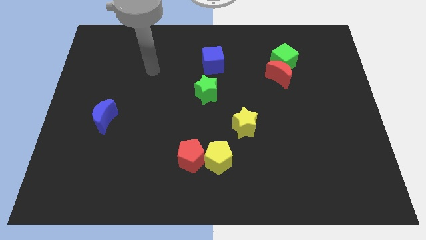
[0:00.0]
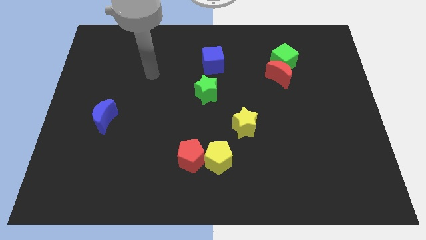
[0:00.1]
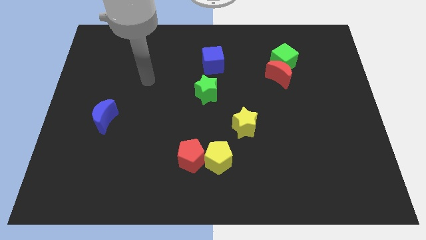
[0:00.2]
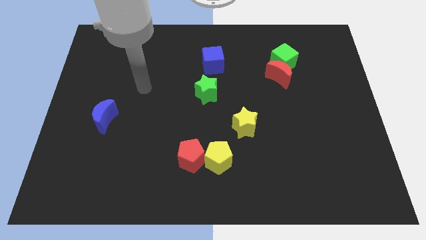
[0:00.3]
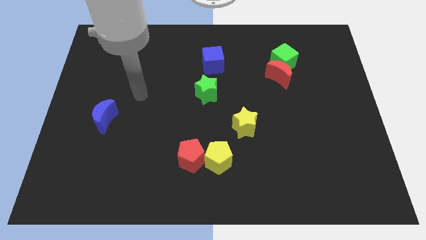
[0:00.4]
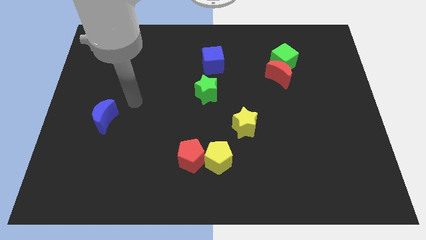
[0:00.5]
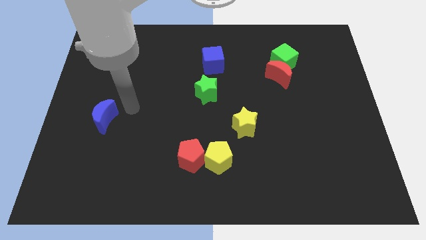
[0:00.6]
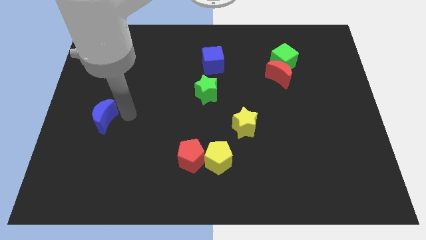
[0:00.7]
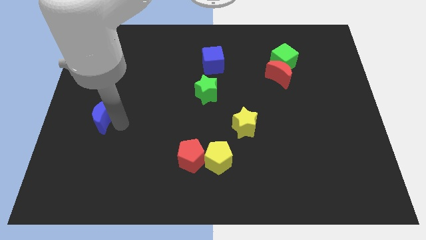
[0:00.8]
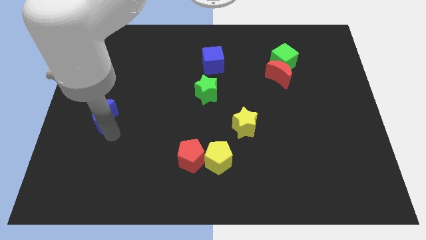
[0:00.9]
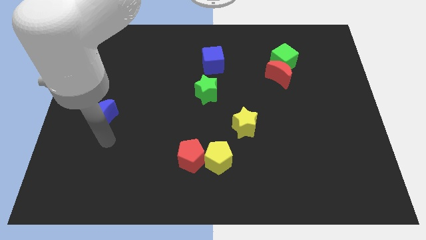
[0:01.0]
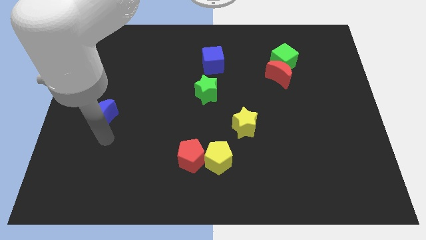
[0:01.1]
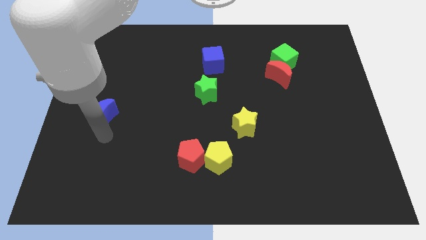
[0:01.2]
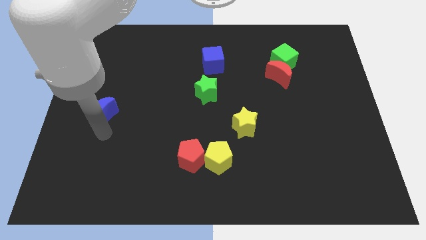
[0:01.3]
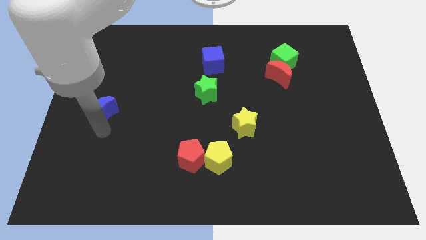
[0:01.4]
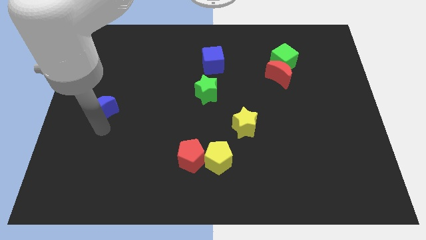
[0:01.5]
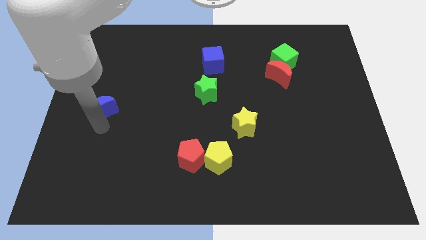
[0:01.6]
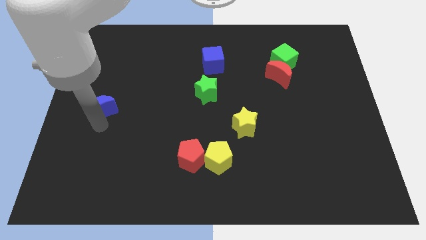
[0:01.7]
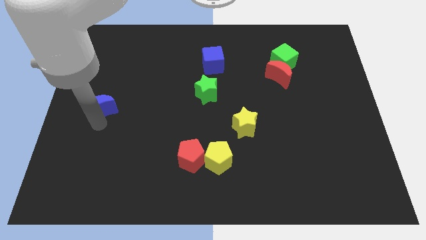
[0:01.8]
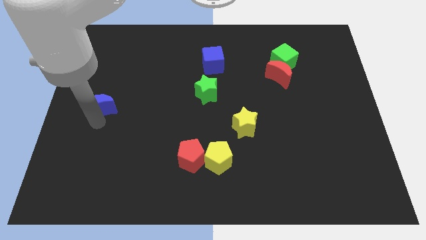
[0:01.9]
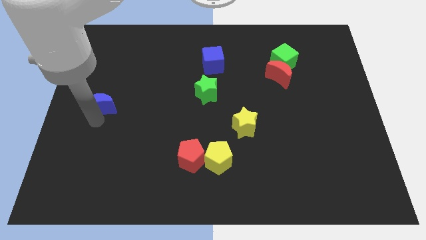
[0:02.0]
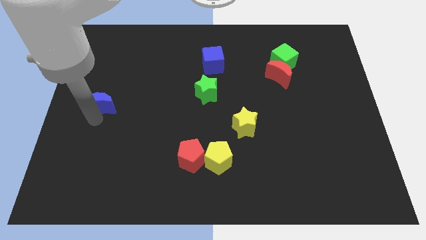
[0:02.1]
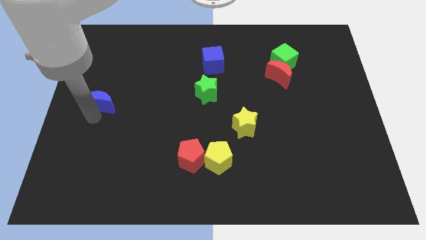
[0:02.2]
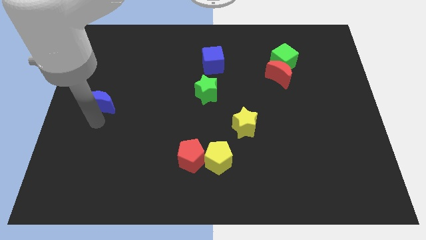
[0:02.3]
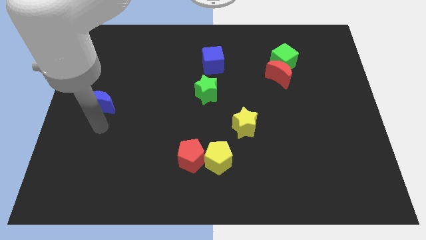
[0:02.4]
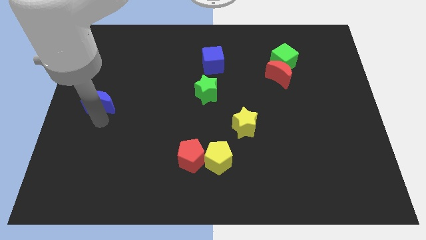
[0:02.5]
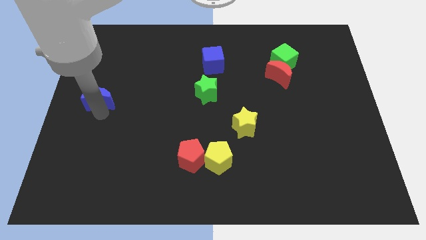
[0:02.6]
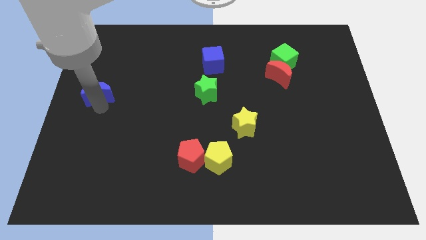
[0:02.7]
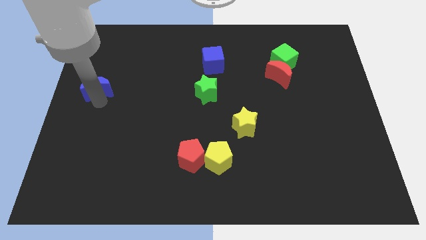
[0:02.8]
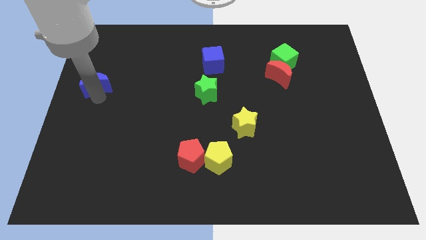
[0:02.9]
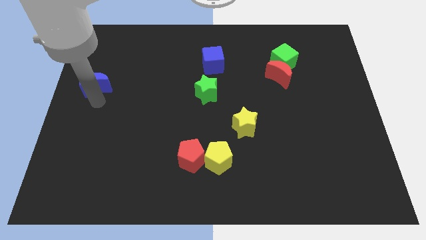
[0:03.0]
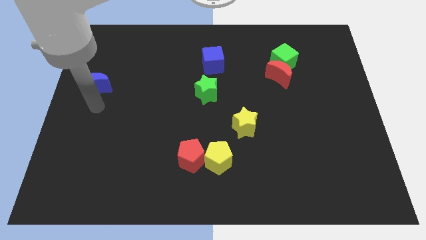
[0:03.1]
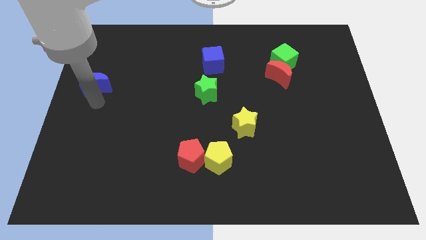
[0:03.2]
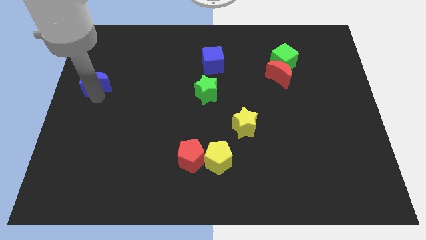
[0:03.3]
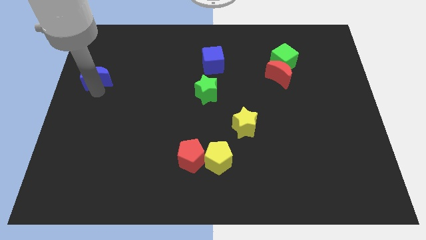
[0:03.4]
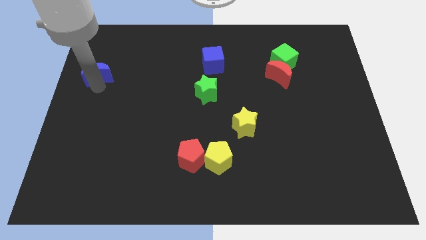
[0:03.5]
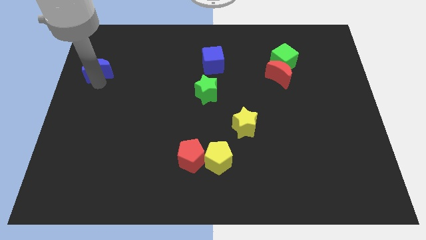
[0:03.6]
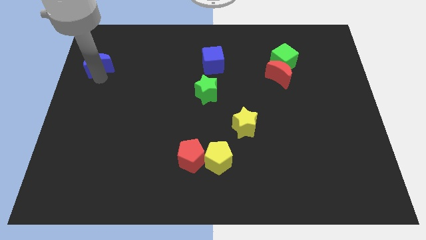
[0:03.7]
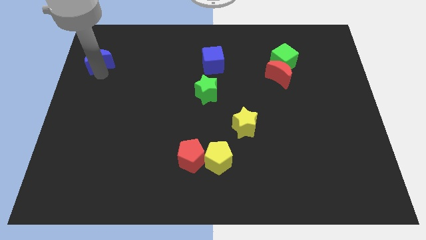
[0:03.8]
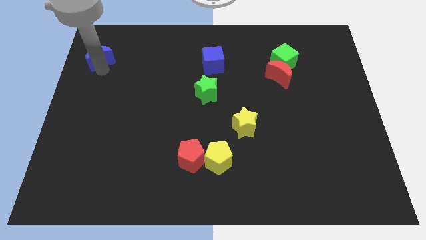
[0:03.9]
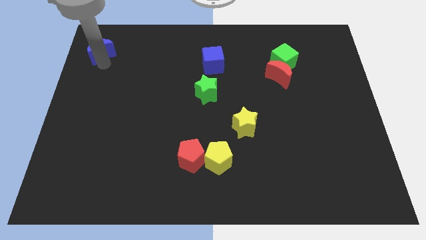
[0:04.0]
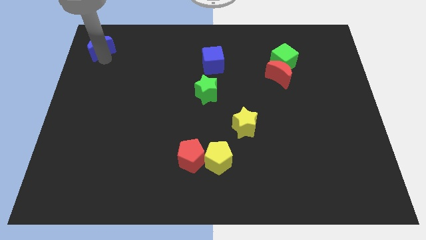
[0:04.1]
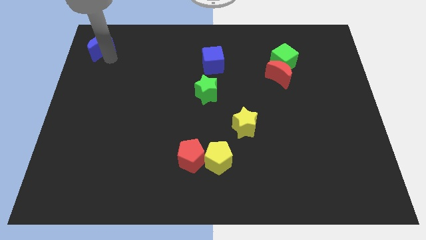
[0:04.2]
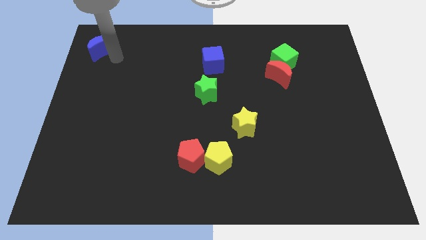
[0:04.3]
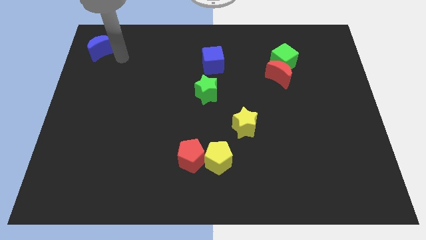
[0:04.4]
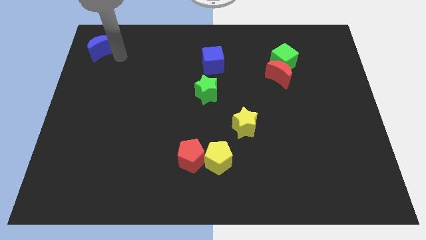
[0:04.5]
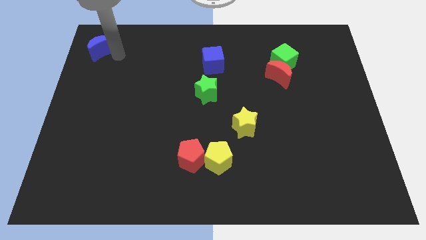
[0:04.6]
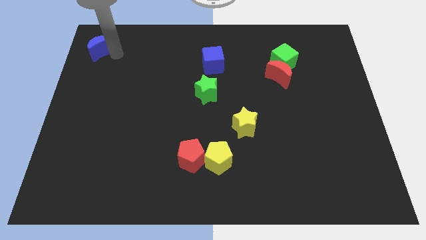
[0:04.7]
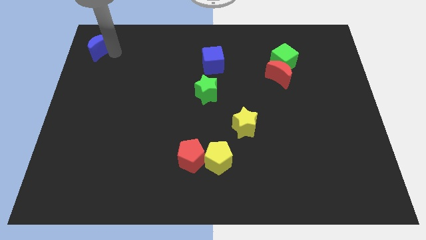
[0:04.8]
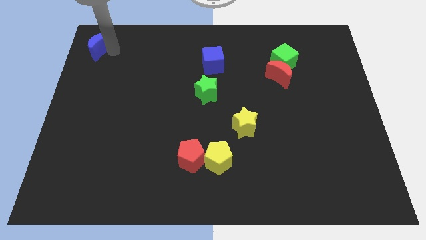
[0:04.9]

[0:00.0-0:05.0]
put the blue moon to the upper left corner

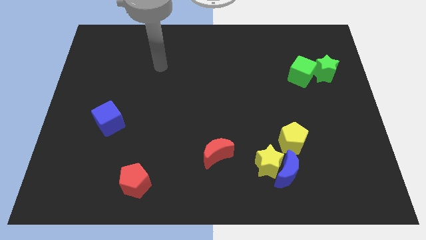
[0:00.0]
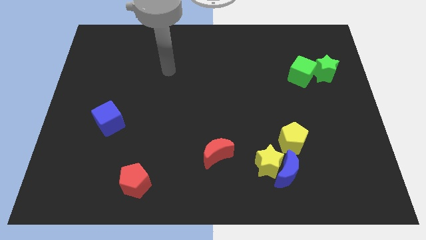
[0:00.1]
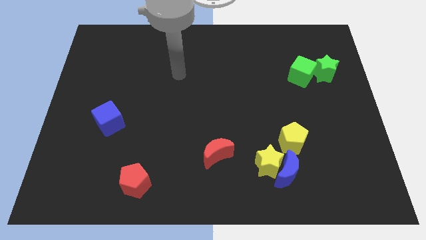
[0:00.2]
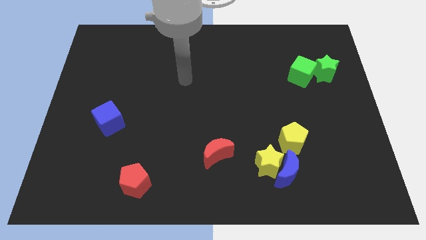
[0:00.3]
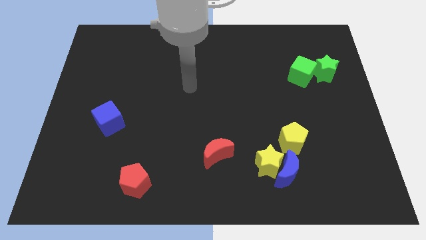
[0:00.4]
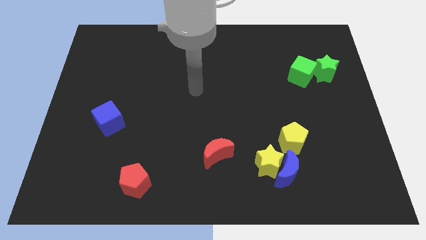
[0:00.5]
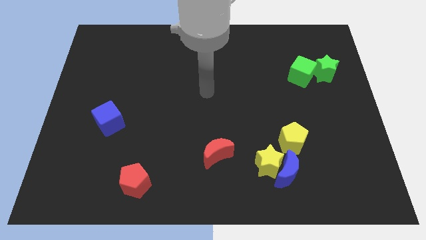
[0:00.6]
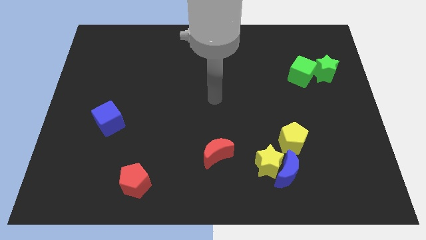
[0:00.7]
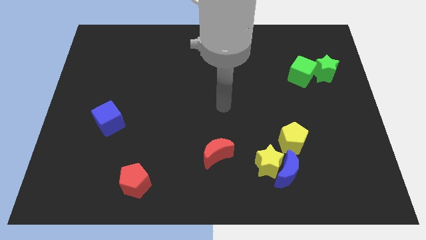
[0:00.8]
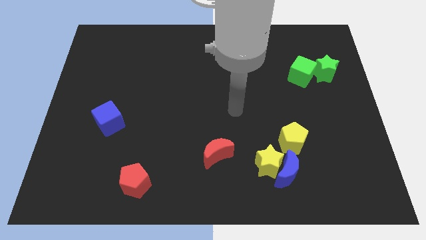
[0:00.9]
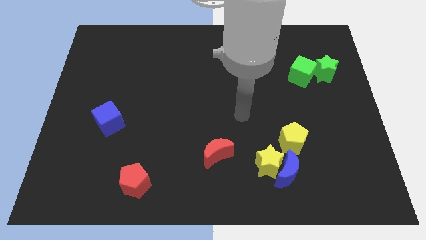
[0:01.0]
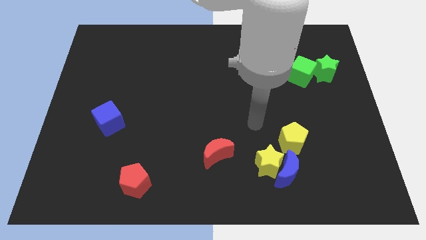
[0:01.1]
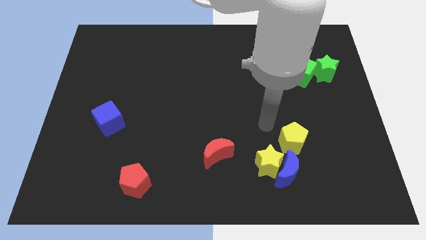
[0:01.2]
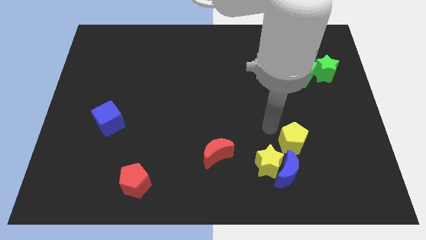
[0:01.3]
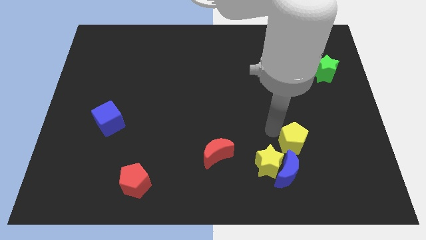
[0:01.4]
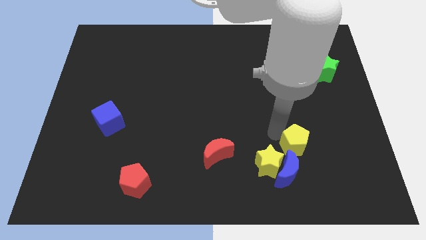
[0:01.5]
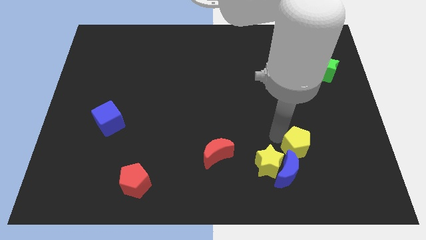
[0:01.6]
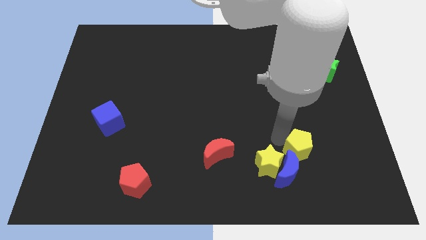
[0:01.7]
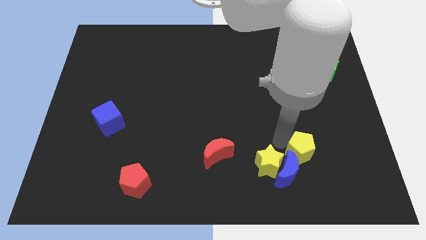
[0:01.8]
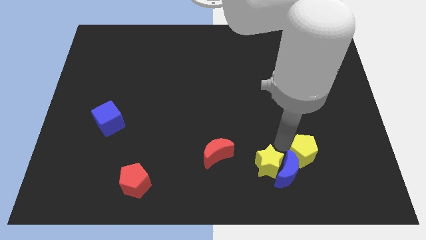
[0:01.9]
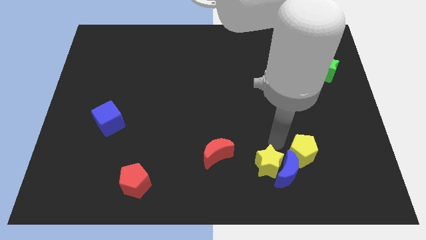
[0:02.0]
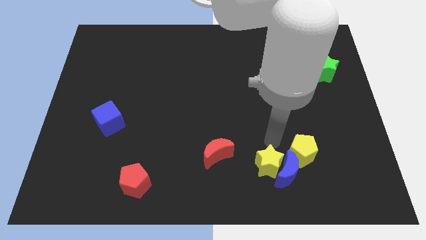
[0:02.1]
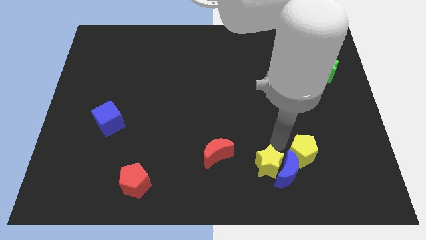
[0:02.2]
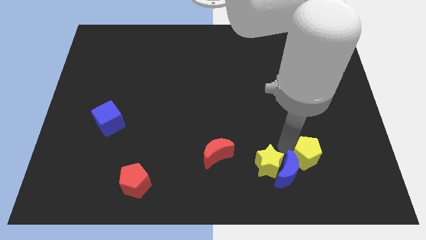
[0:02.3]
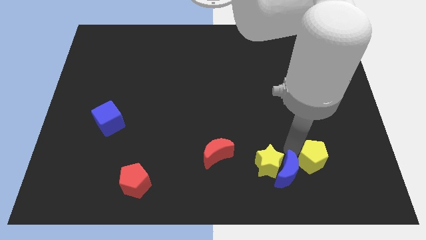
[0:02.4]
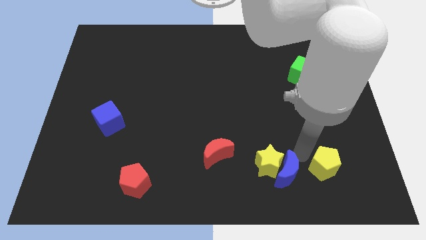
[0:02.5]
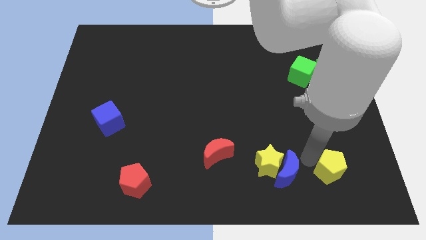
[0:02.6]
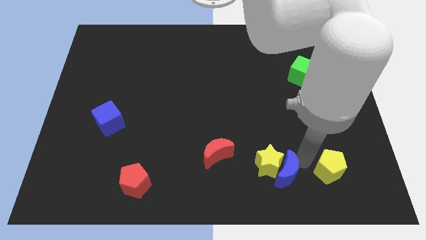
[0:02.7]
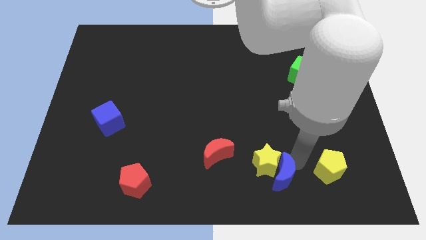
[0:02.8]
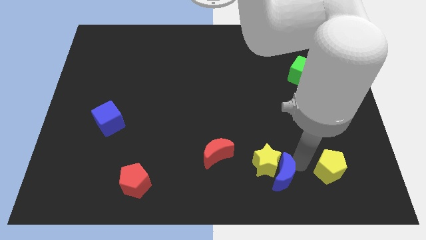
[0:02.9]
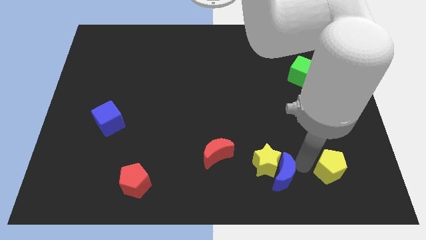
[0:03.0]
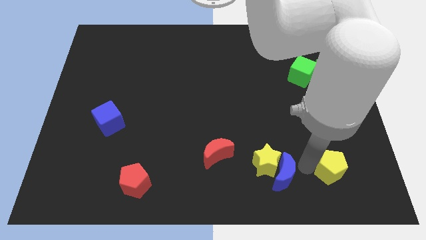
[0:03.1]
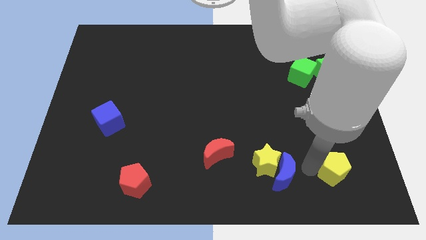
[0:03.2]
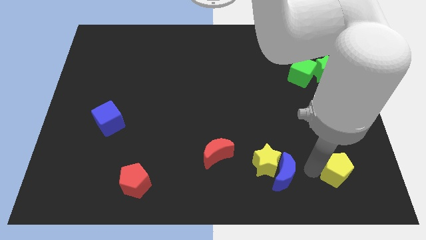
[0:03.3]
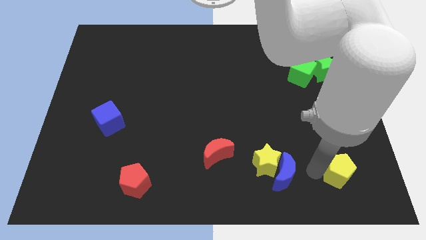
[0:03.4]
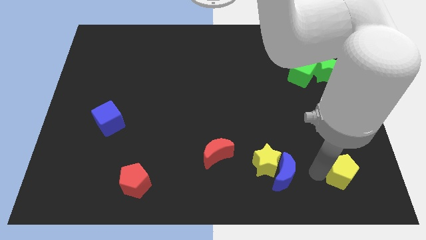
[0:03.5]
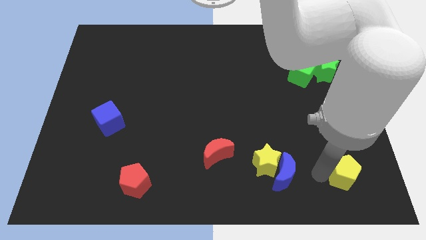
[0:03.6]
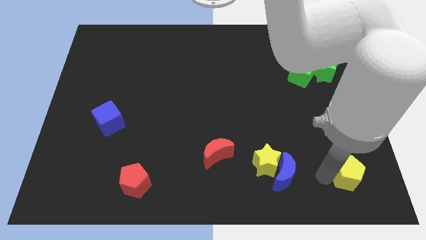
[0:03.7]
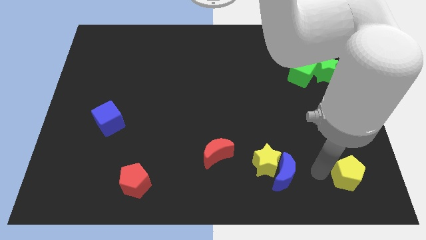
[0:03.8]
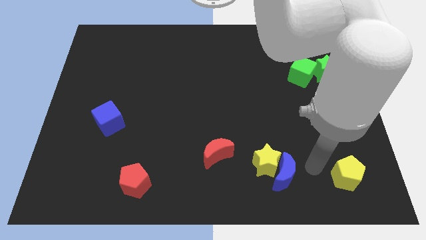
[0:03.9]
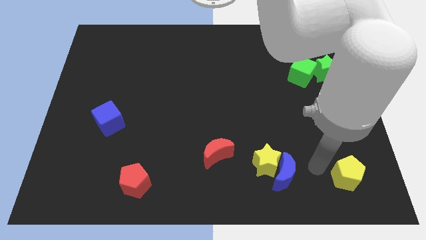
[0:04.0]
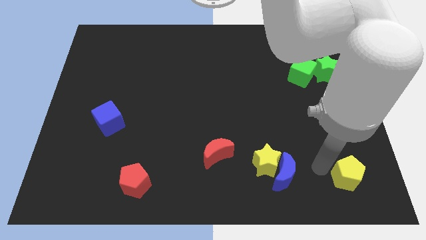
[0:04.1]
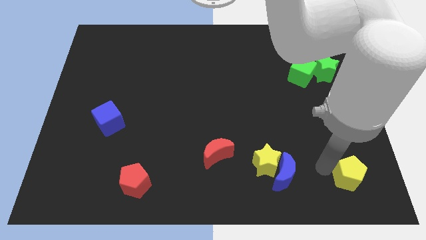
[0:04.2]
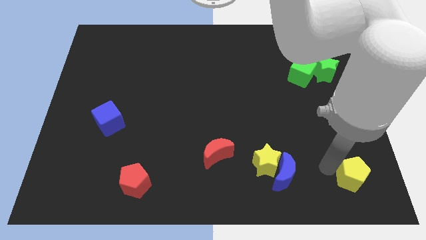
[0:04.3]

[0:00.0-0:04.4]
push the yellow pentagon to the bottom right
